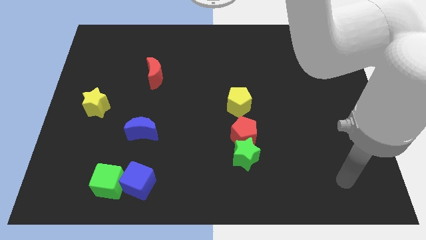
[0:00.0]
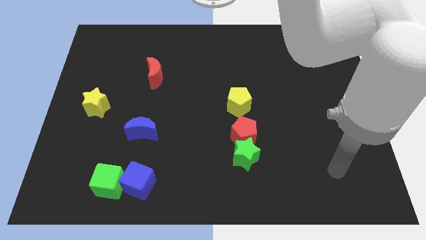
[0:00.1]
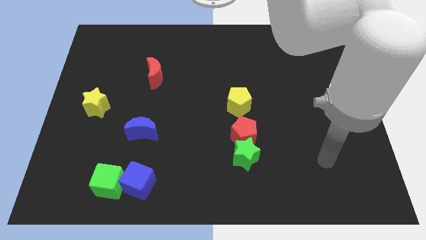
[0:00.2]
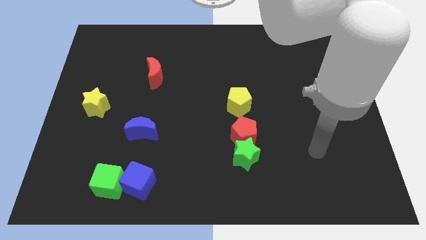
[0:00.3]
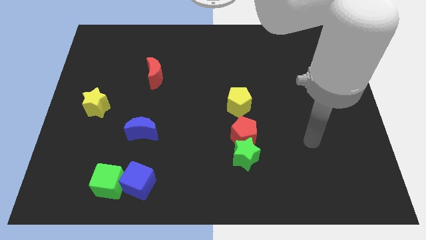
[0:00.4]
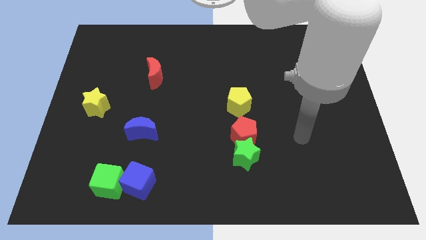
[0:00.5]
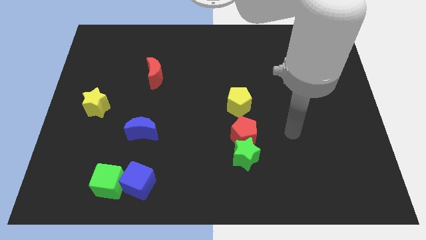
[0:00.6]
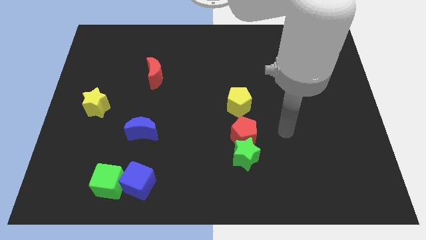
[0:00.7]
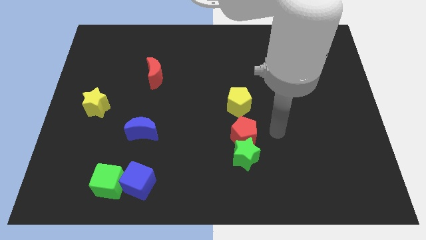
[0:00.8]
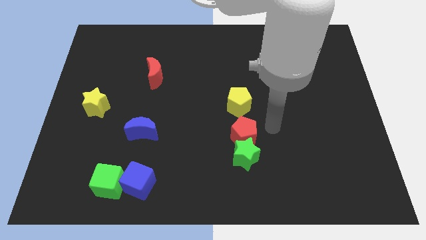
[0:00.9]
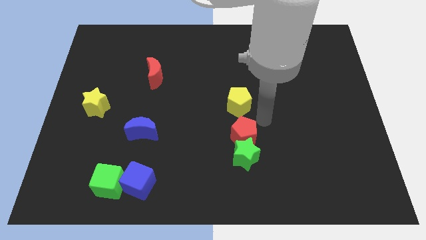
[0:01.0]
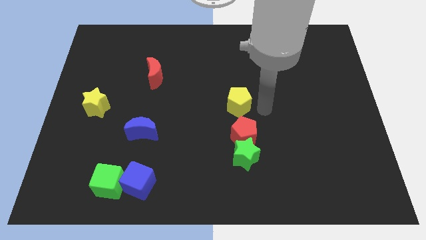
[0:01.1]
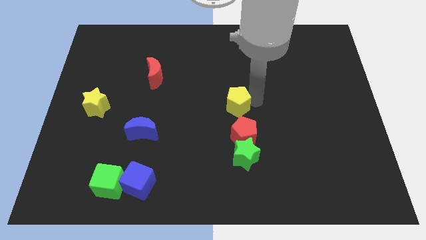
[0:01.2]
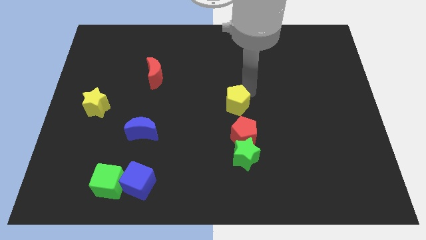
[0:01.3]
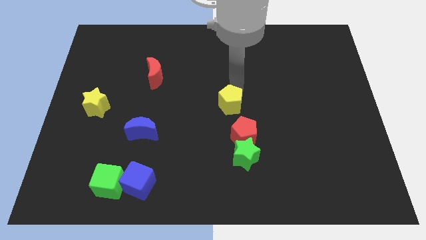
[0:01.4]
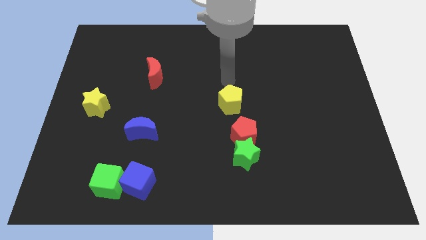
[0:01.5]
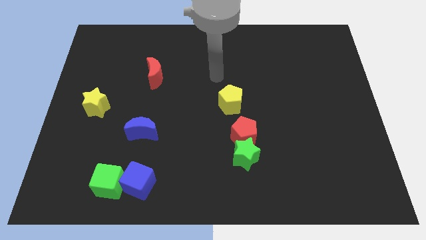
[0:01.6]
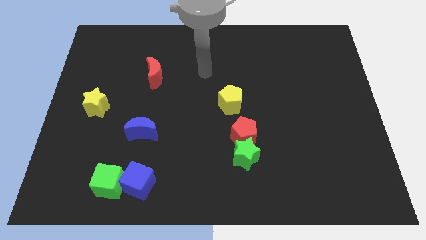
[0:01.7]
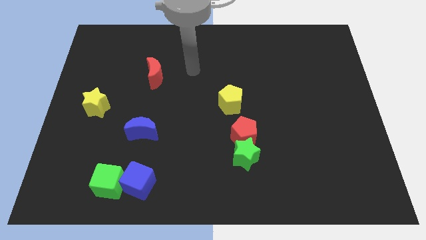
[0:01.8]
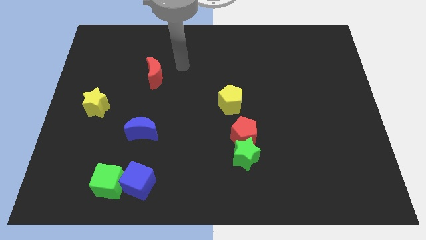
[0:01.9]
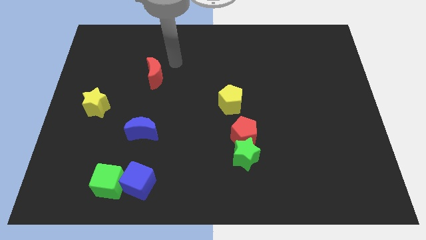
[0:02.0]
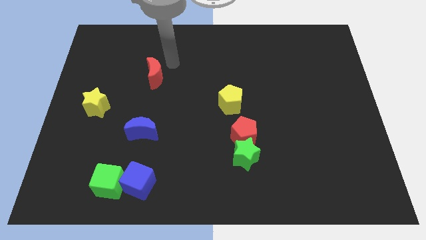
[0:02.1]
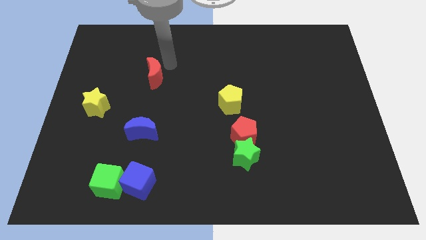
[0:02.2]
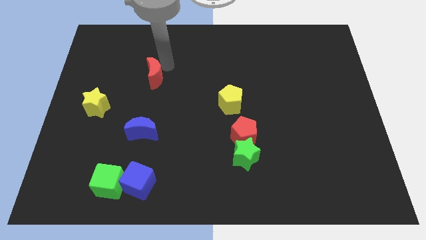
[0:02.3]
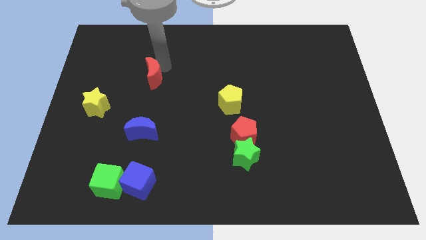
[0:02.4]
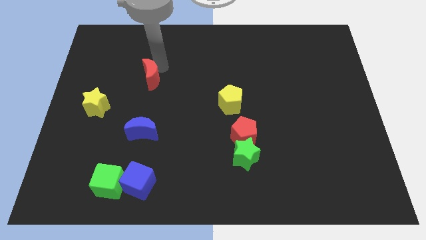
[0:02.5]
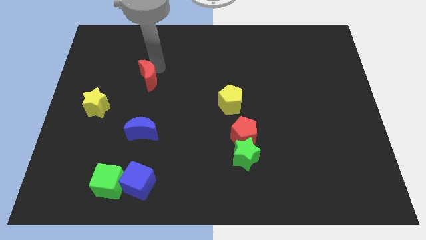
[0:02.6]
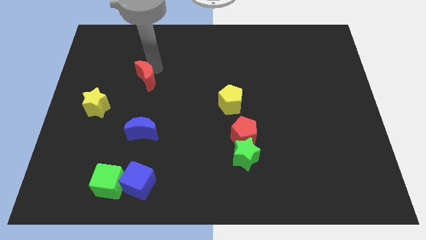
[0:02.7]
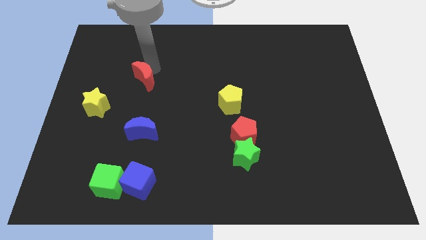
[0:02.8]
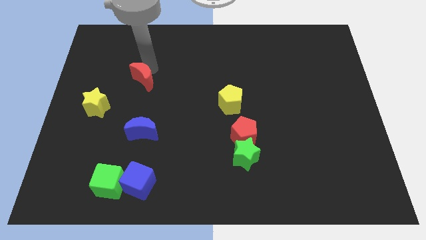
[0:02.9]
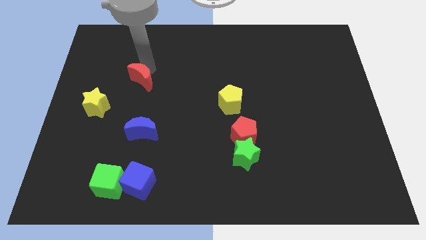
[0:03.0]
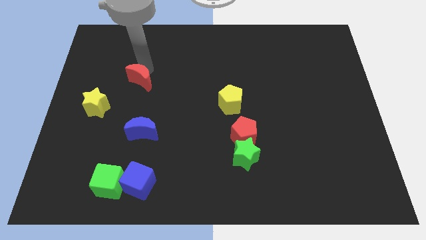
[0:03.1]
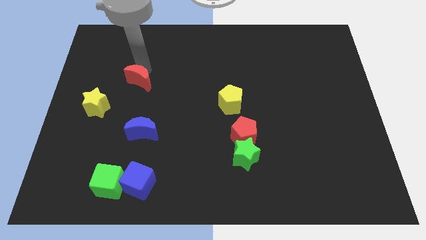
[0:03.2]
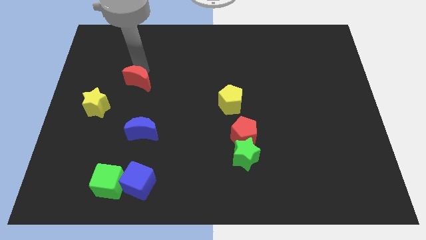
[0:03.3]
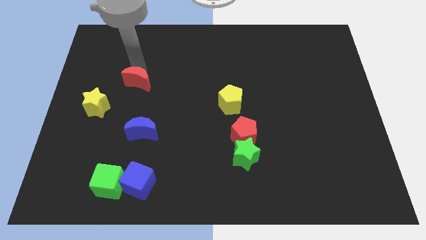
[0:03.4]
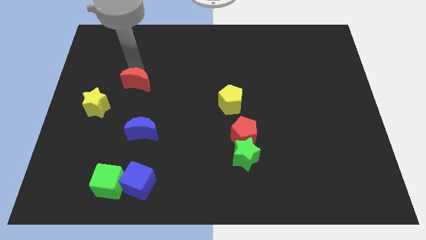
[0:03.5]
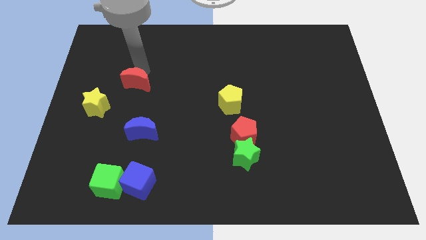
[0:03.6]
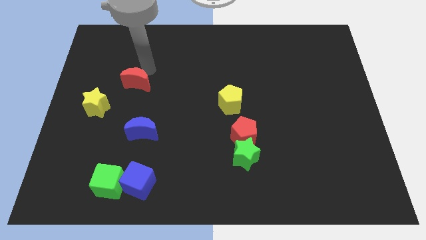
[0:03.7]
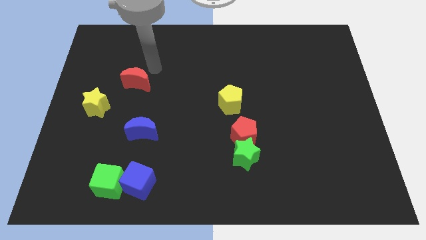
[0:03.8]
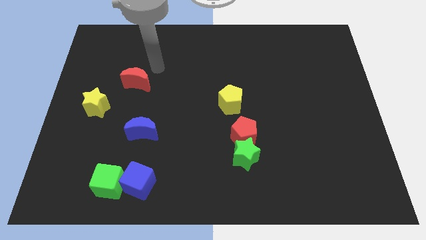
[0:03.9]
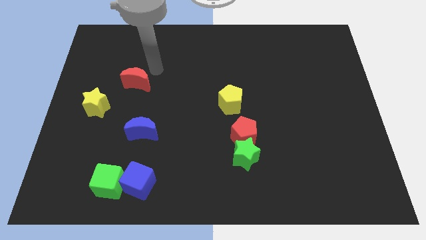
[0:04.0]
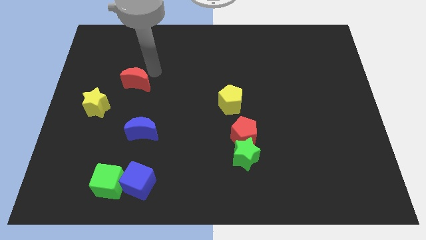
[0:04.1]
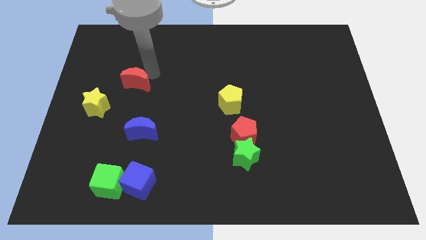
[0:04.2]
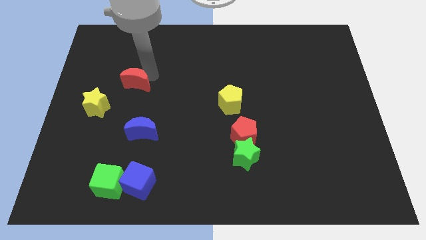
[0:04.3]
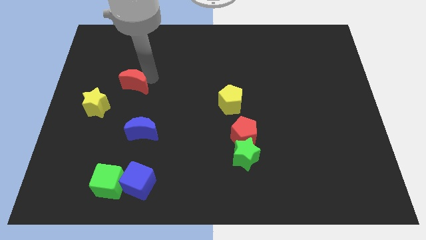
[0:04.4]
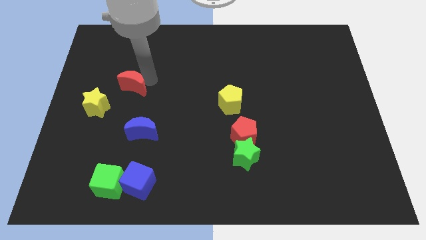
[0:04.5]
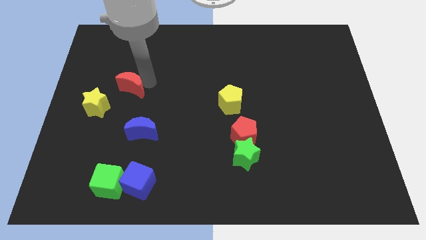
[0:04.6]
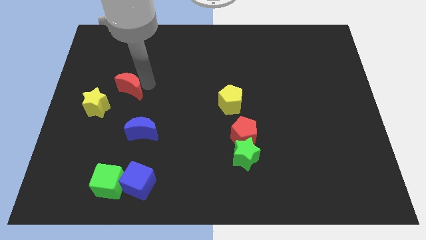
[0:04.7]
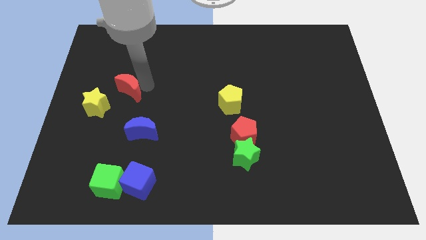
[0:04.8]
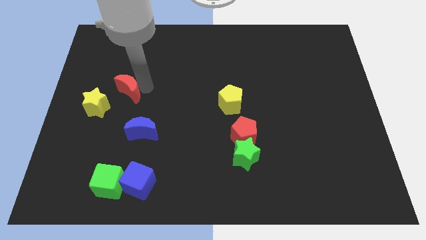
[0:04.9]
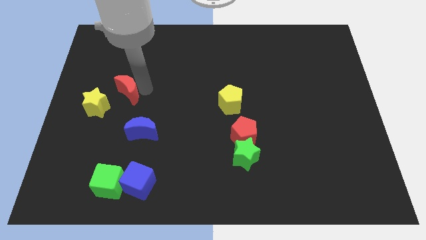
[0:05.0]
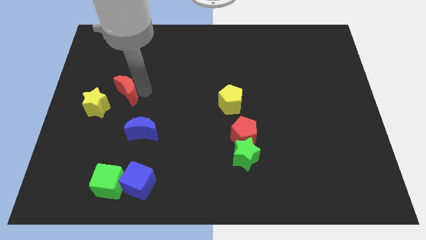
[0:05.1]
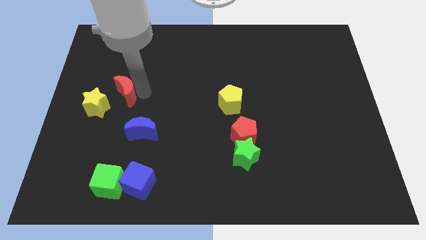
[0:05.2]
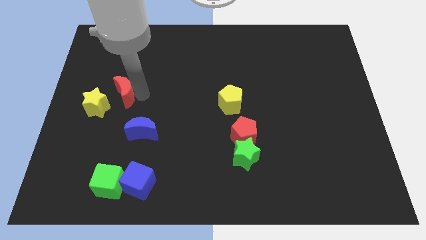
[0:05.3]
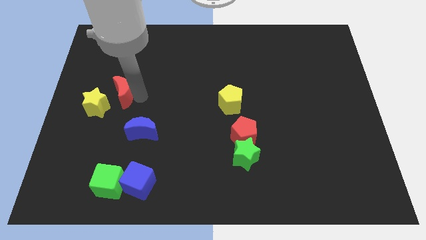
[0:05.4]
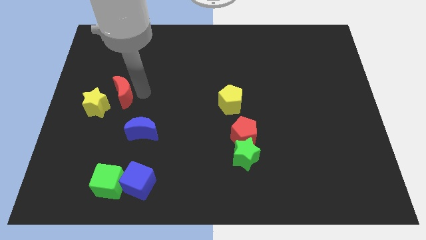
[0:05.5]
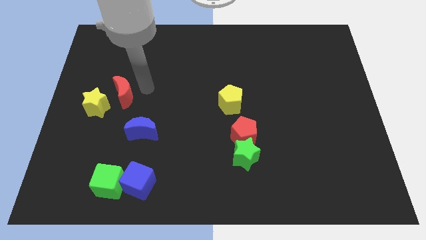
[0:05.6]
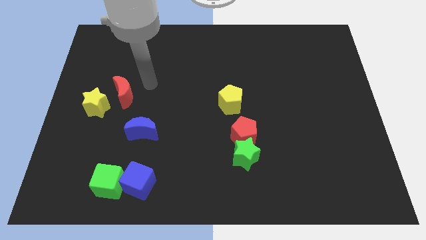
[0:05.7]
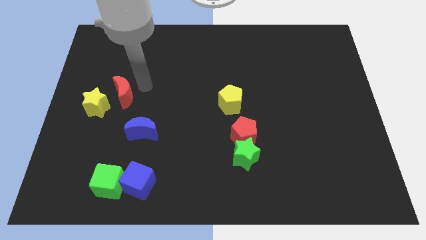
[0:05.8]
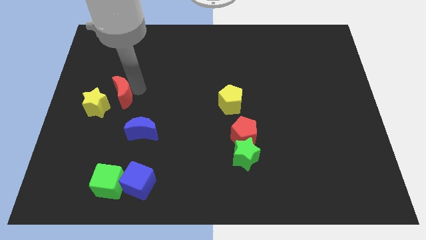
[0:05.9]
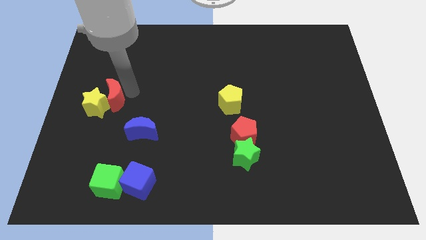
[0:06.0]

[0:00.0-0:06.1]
push the red moon next to the yellow star

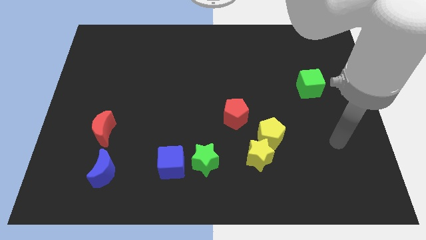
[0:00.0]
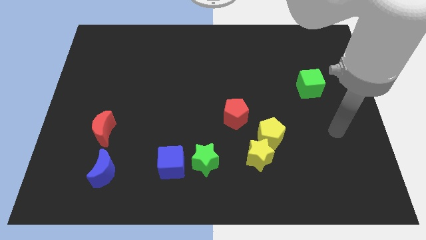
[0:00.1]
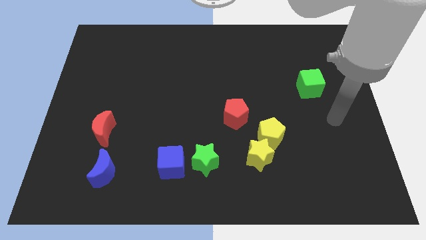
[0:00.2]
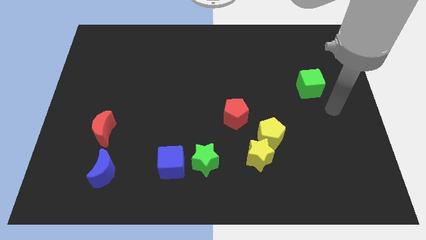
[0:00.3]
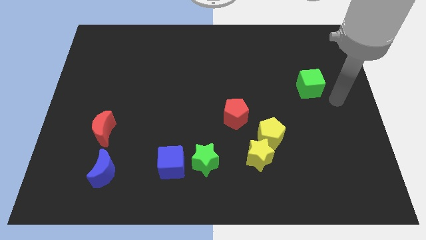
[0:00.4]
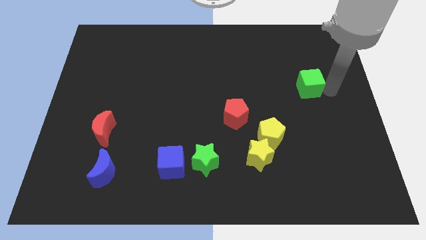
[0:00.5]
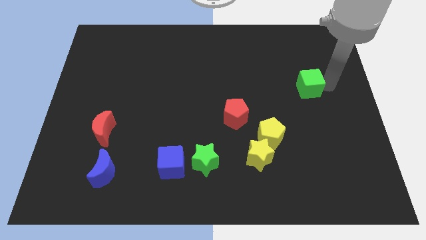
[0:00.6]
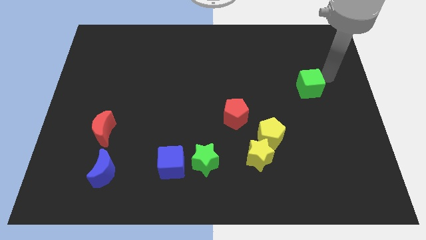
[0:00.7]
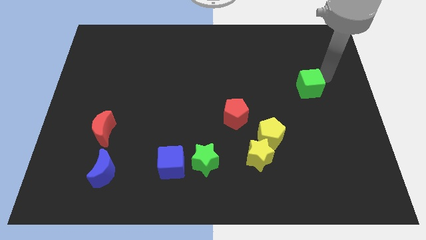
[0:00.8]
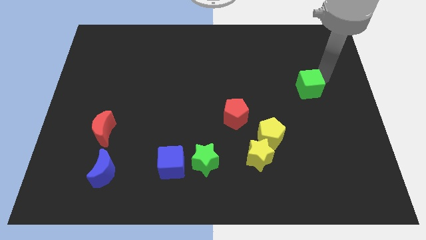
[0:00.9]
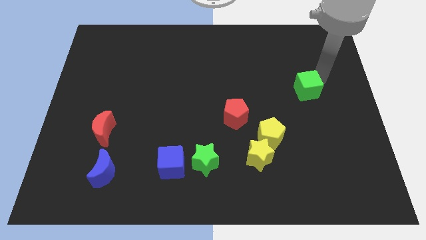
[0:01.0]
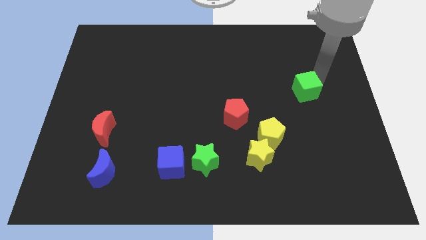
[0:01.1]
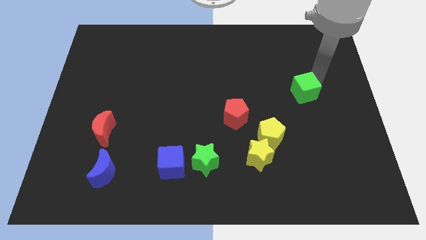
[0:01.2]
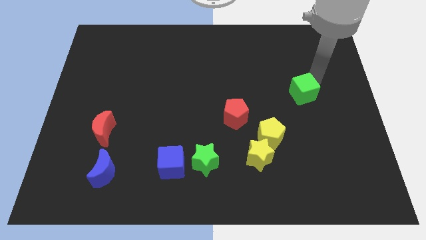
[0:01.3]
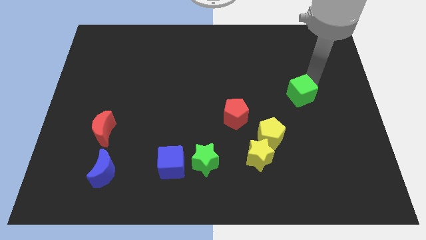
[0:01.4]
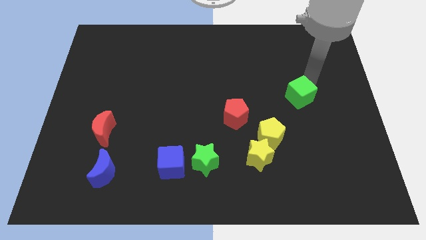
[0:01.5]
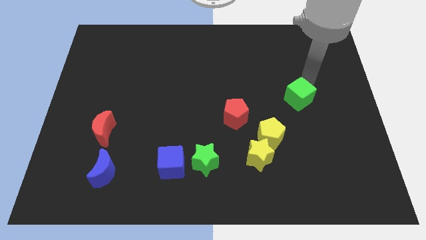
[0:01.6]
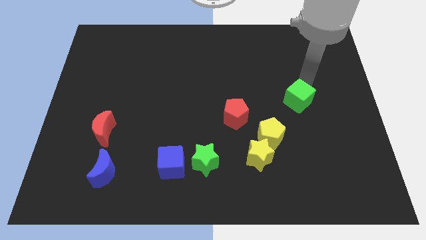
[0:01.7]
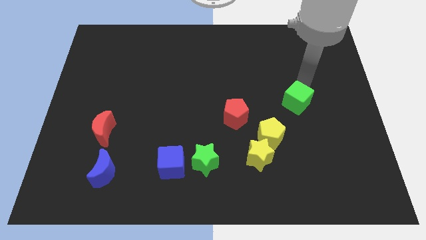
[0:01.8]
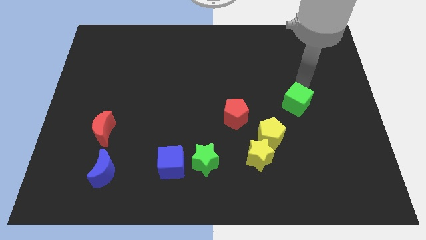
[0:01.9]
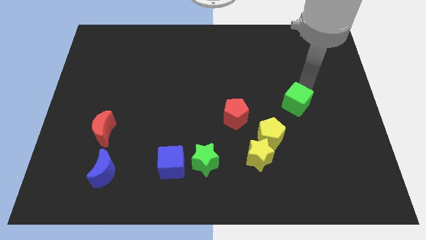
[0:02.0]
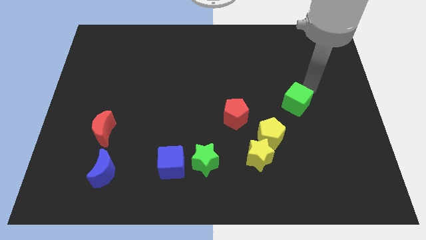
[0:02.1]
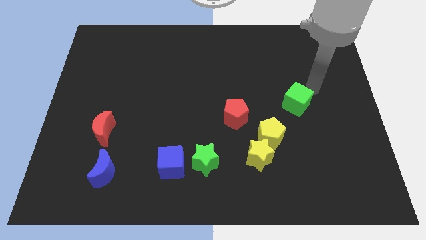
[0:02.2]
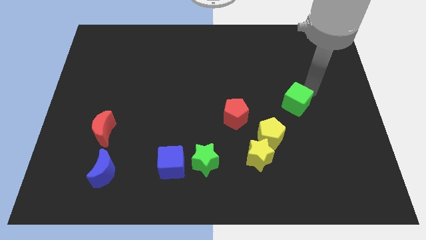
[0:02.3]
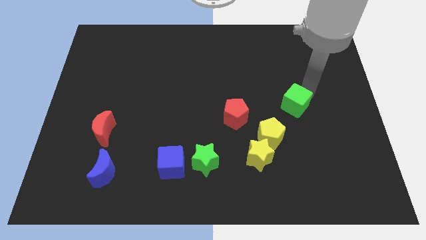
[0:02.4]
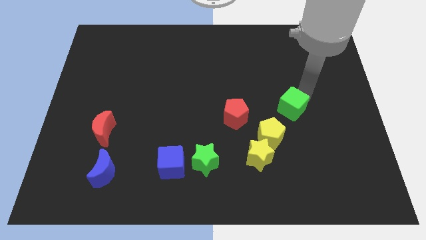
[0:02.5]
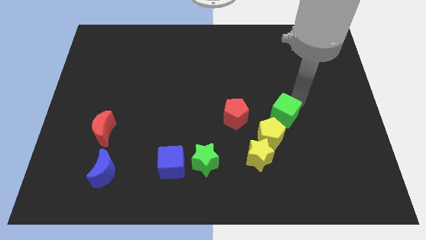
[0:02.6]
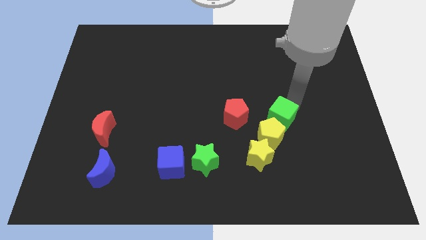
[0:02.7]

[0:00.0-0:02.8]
put the green cube close to the yellow pentagon
